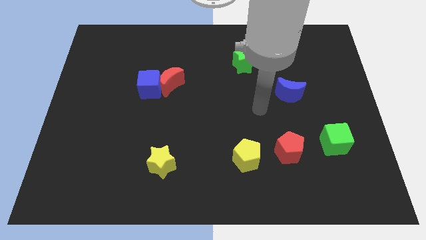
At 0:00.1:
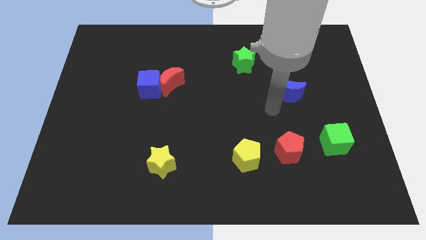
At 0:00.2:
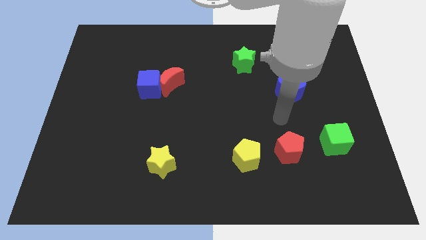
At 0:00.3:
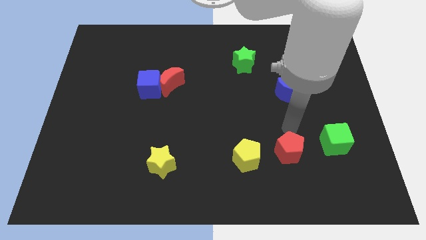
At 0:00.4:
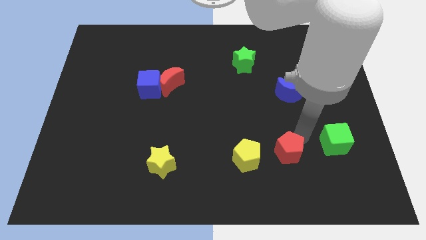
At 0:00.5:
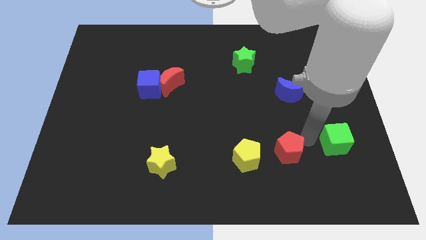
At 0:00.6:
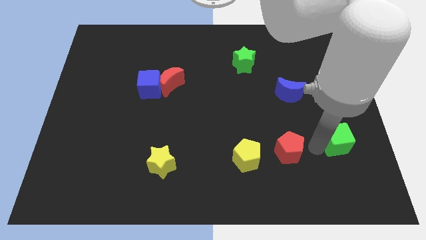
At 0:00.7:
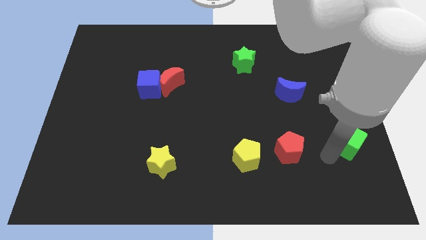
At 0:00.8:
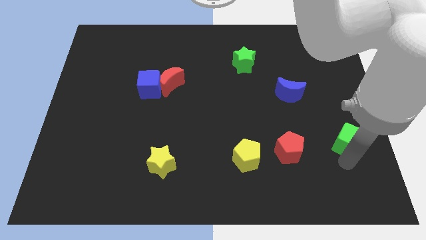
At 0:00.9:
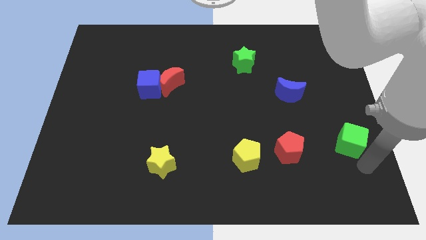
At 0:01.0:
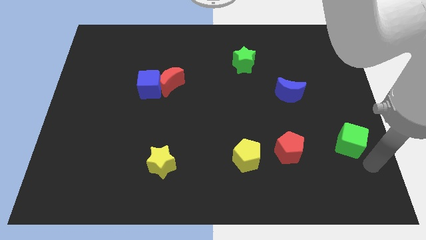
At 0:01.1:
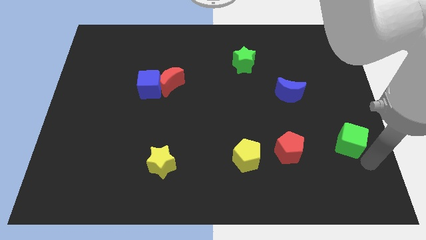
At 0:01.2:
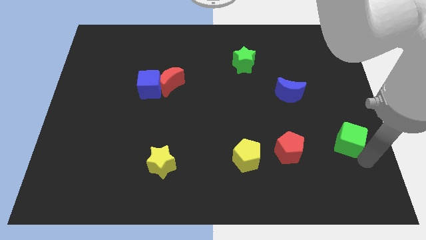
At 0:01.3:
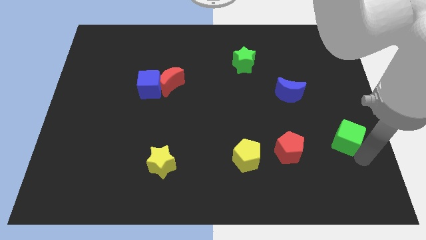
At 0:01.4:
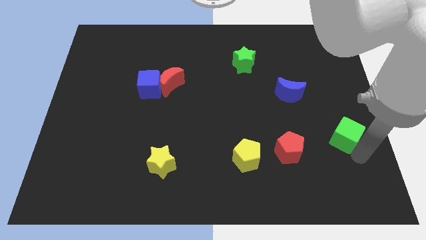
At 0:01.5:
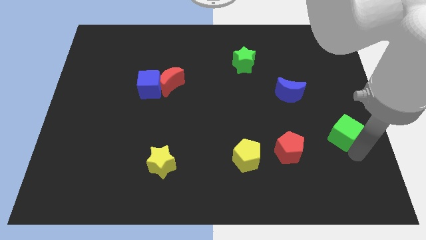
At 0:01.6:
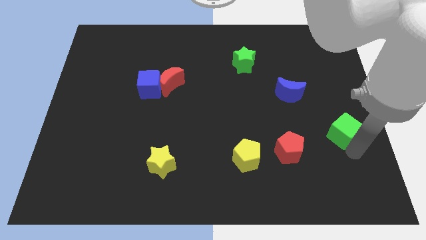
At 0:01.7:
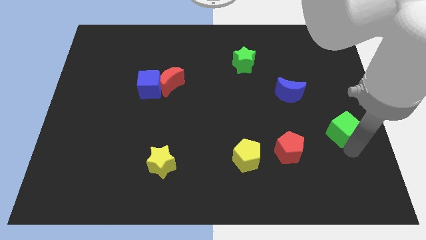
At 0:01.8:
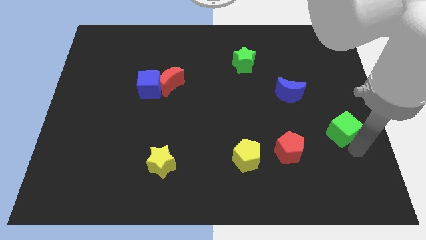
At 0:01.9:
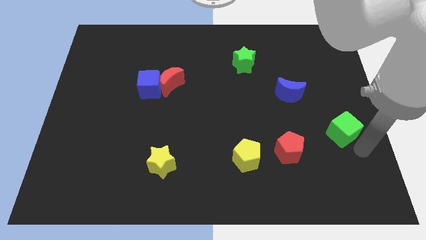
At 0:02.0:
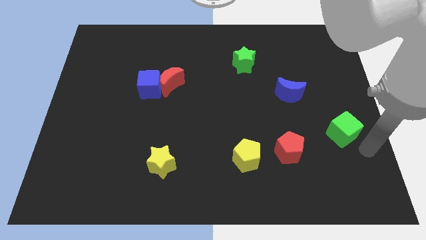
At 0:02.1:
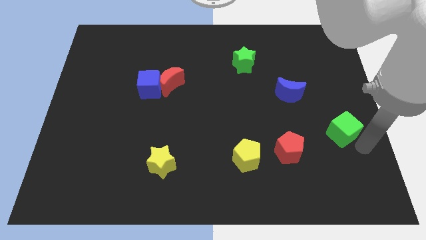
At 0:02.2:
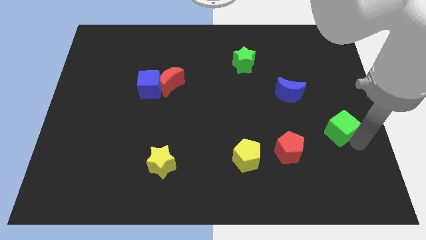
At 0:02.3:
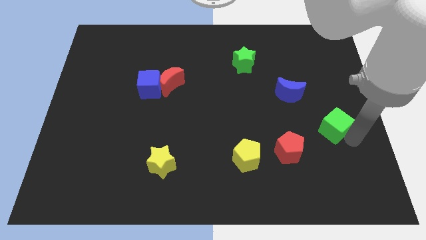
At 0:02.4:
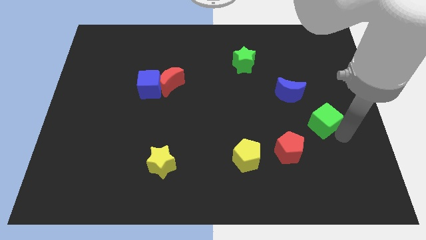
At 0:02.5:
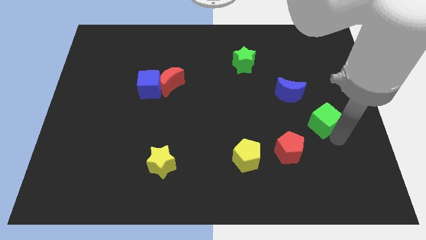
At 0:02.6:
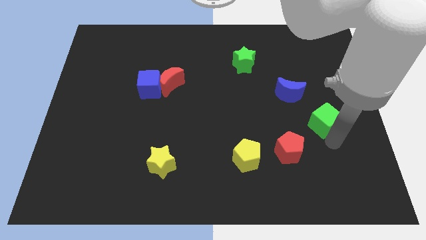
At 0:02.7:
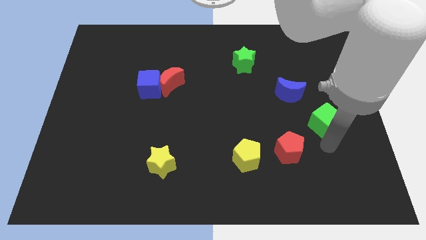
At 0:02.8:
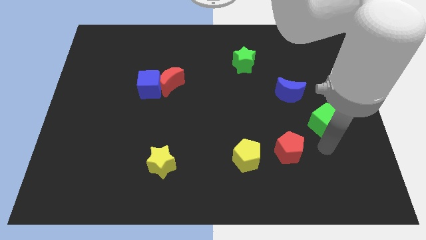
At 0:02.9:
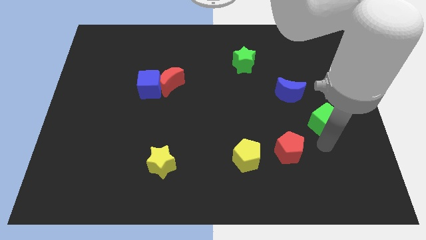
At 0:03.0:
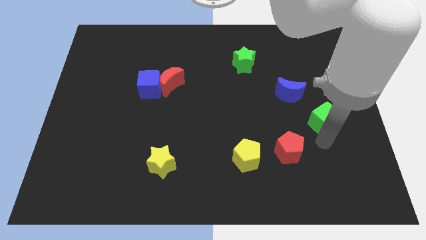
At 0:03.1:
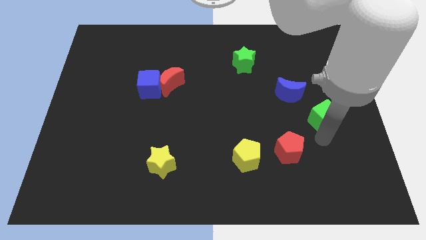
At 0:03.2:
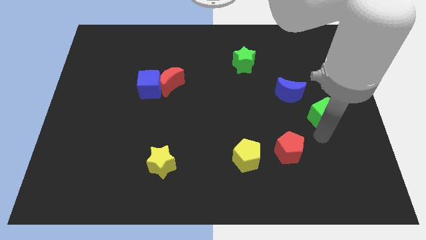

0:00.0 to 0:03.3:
slightly move the green cube upwards

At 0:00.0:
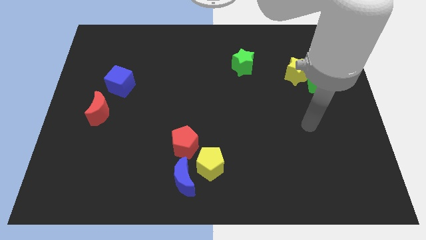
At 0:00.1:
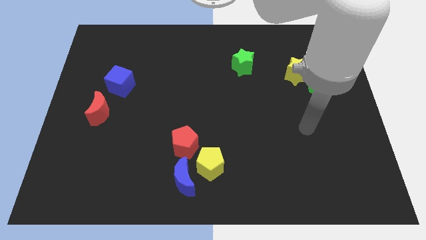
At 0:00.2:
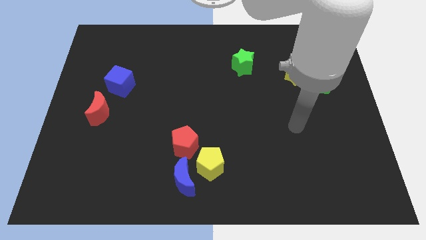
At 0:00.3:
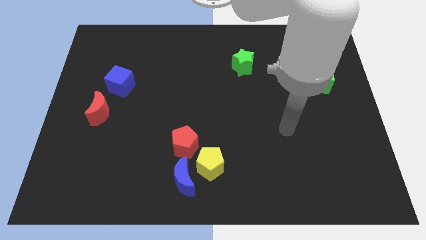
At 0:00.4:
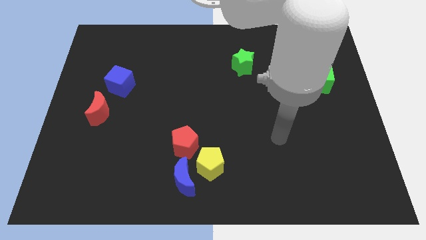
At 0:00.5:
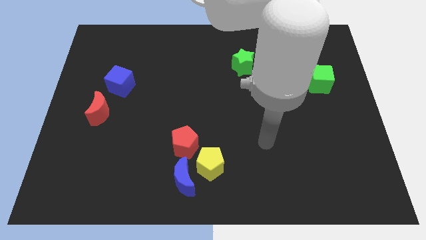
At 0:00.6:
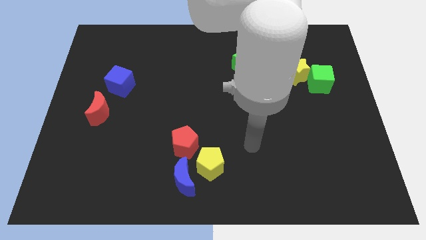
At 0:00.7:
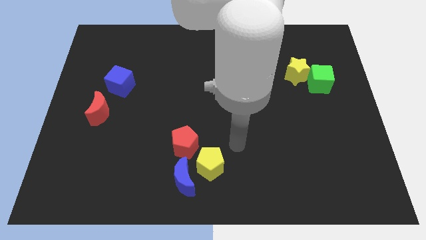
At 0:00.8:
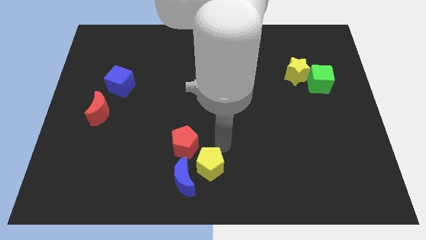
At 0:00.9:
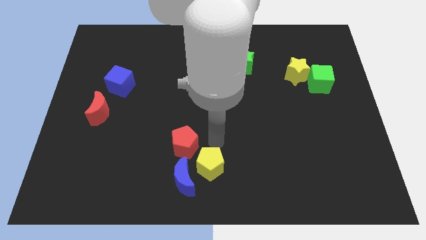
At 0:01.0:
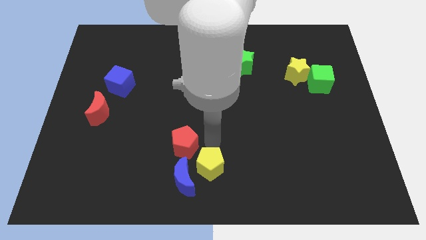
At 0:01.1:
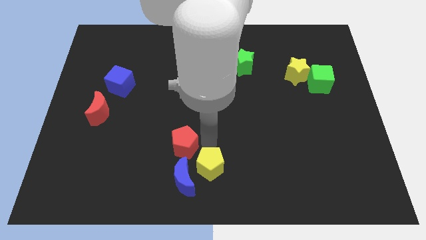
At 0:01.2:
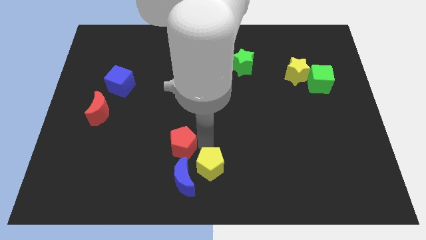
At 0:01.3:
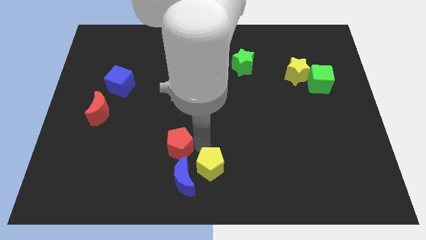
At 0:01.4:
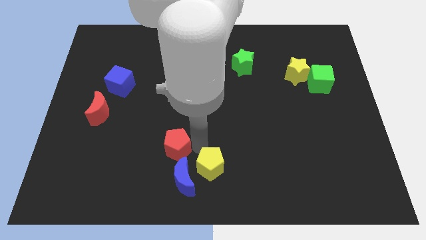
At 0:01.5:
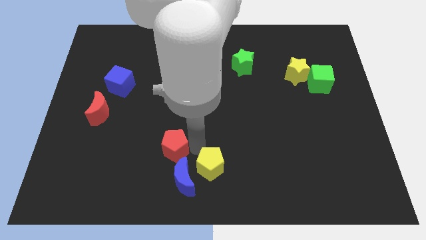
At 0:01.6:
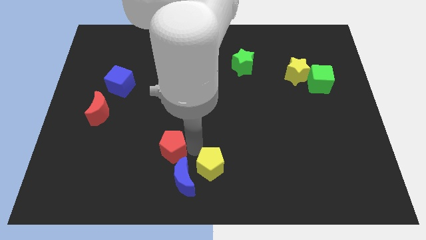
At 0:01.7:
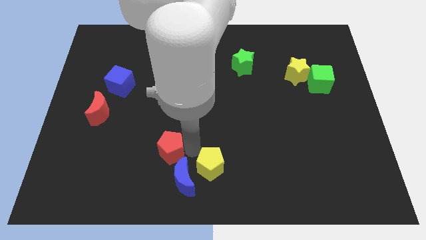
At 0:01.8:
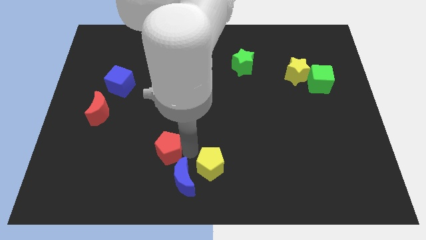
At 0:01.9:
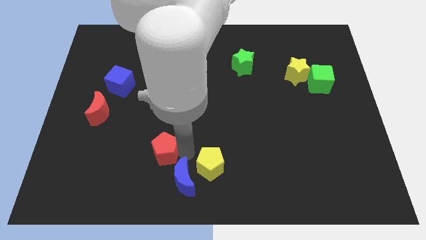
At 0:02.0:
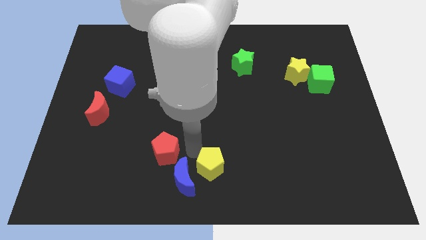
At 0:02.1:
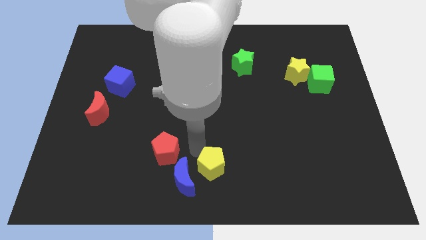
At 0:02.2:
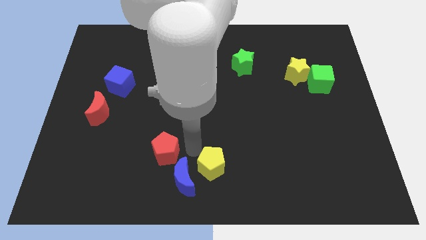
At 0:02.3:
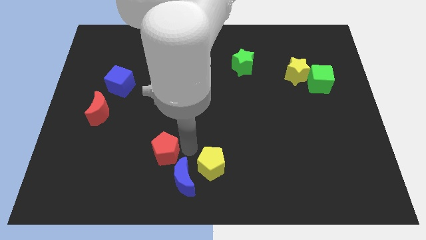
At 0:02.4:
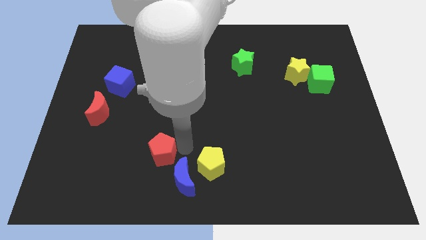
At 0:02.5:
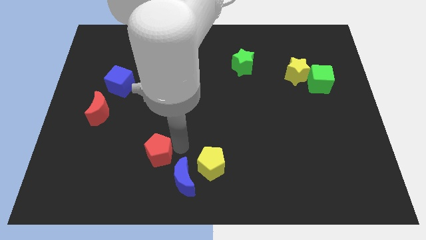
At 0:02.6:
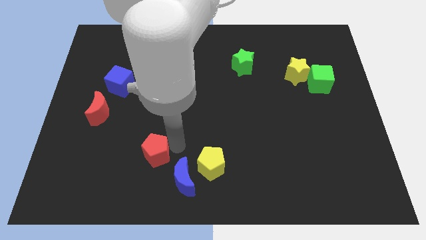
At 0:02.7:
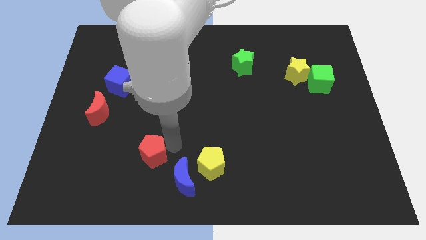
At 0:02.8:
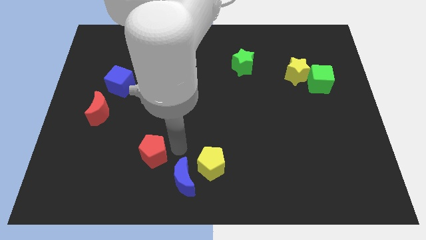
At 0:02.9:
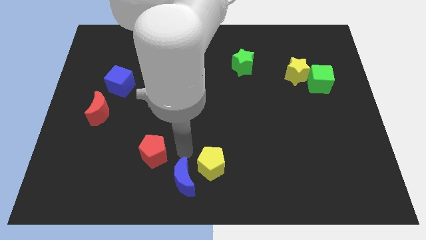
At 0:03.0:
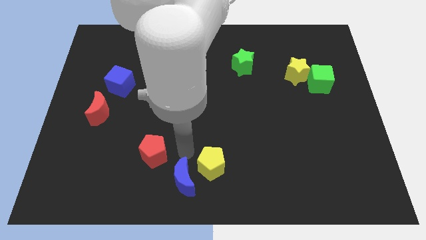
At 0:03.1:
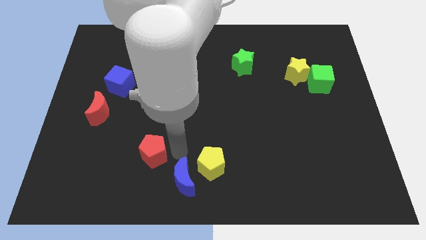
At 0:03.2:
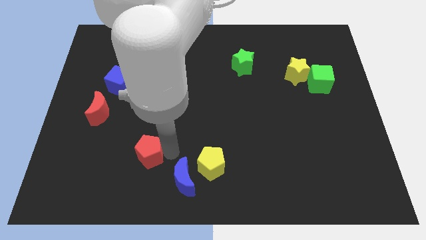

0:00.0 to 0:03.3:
slide the red pentagon left a bit

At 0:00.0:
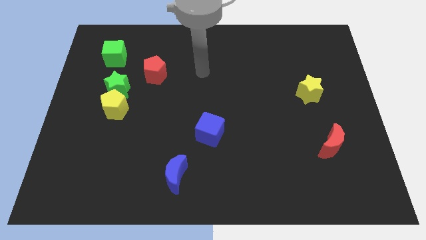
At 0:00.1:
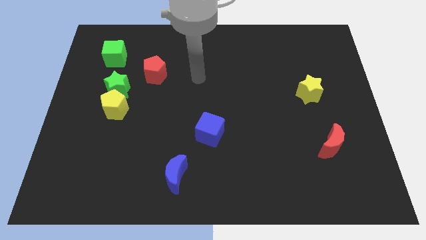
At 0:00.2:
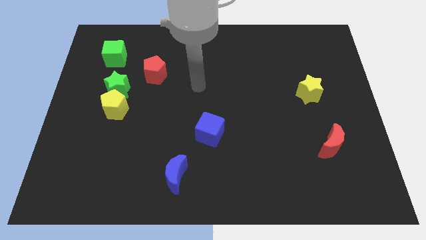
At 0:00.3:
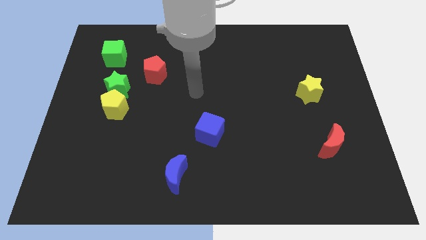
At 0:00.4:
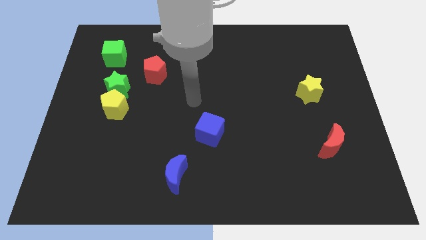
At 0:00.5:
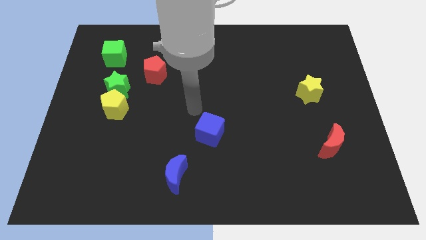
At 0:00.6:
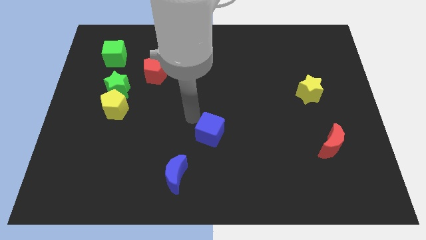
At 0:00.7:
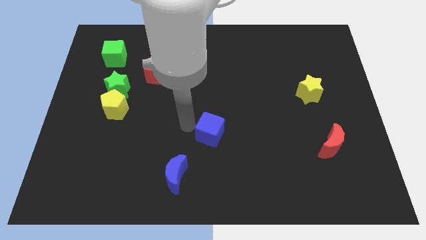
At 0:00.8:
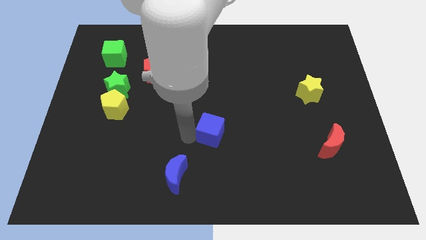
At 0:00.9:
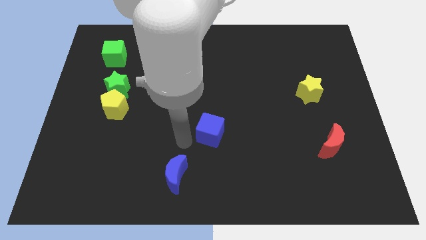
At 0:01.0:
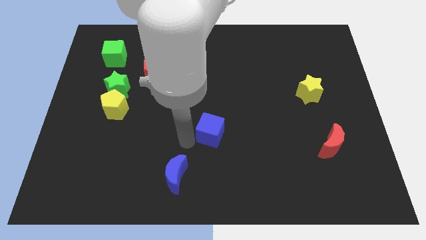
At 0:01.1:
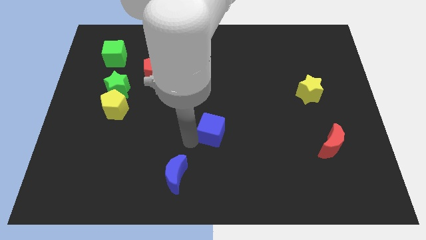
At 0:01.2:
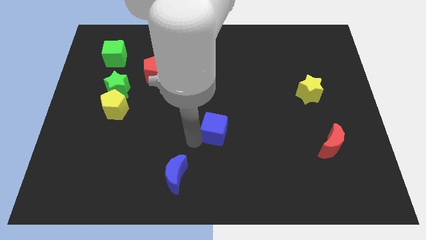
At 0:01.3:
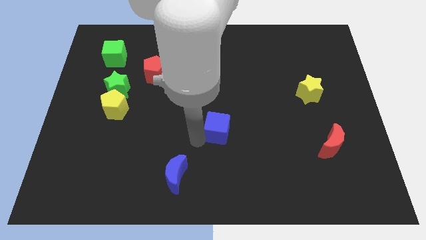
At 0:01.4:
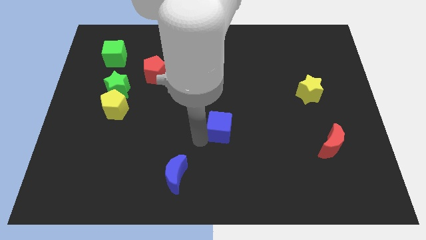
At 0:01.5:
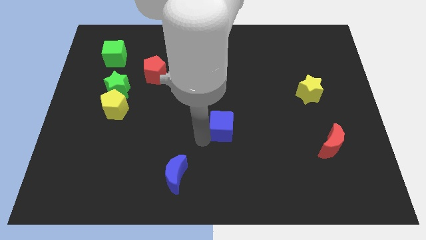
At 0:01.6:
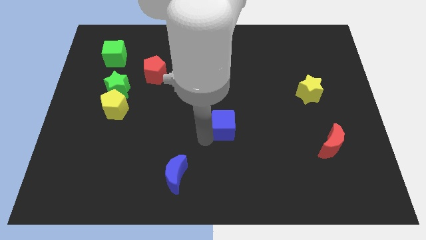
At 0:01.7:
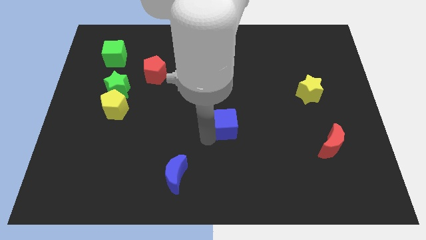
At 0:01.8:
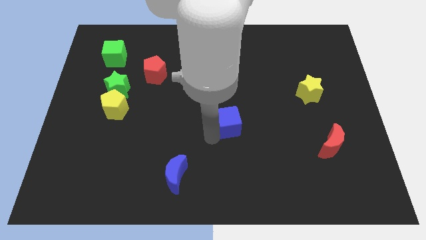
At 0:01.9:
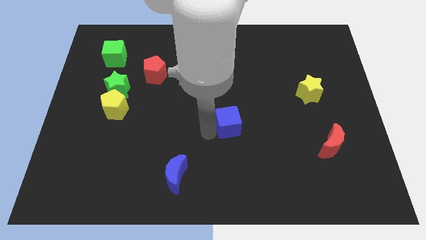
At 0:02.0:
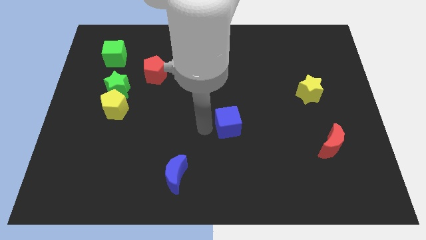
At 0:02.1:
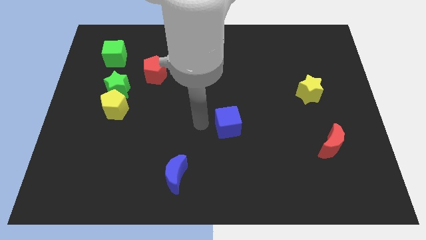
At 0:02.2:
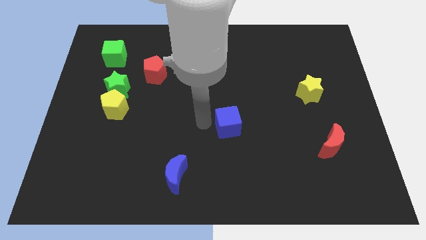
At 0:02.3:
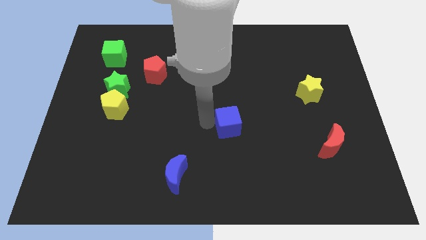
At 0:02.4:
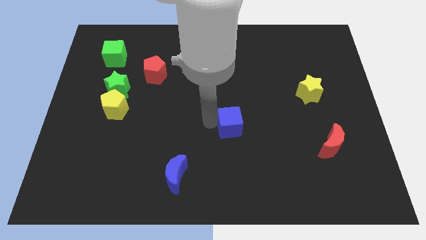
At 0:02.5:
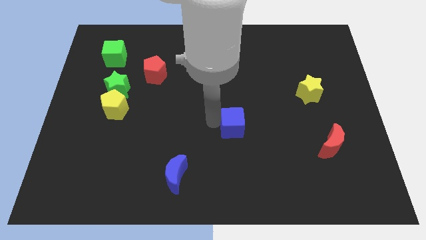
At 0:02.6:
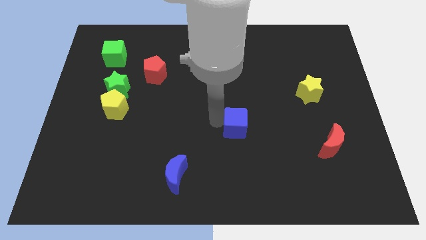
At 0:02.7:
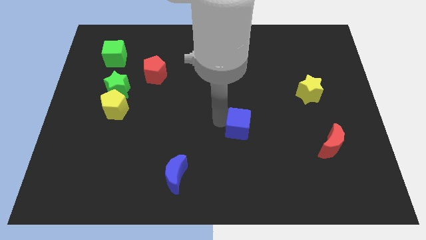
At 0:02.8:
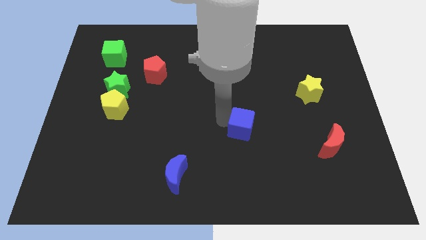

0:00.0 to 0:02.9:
slide the blue cube a little right
